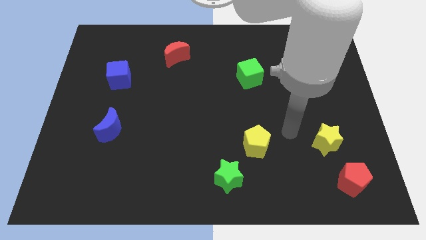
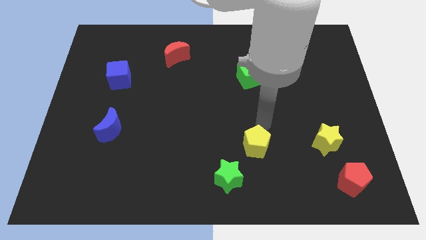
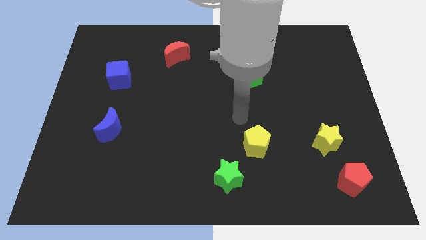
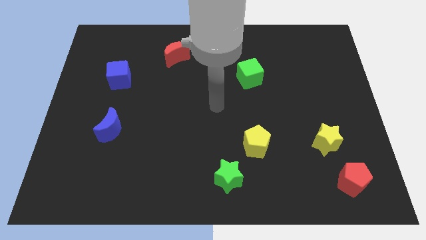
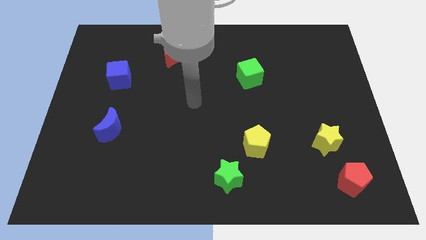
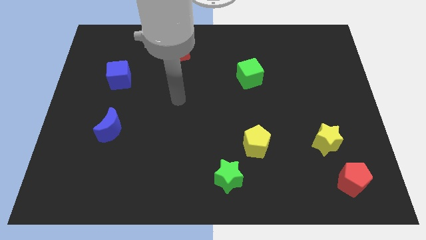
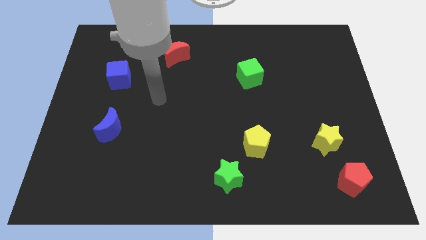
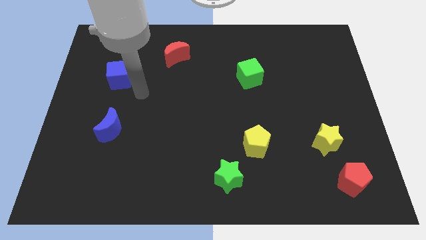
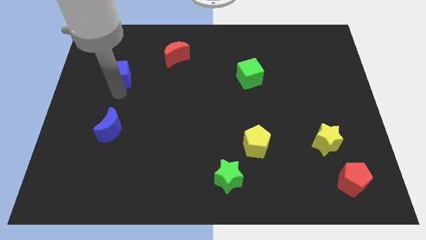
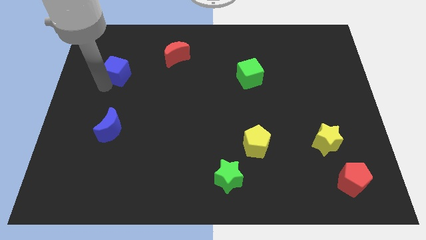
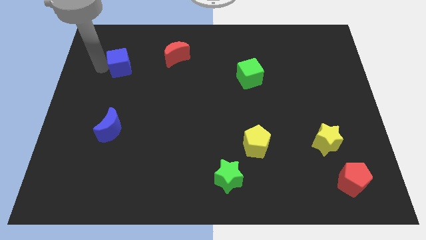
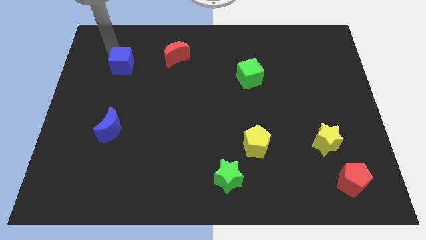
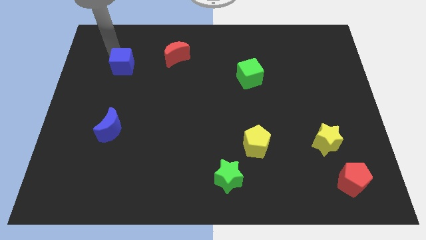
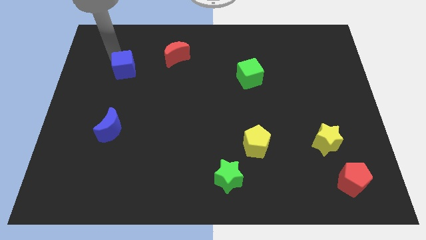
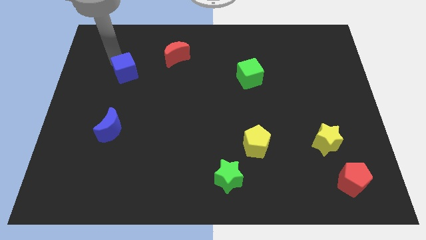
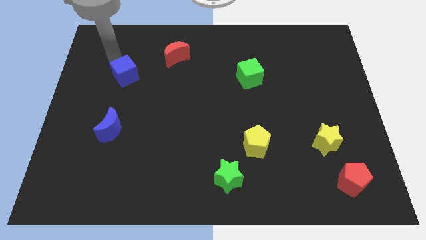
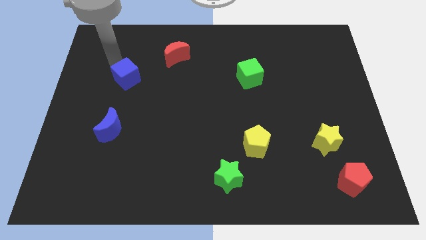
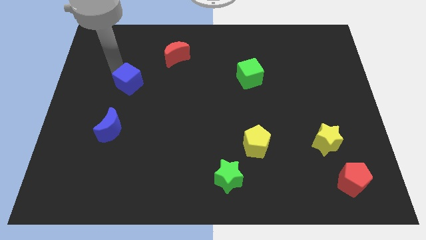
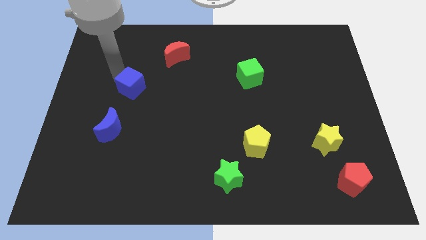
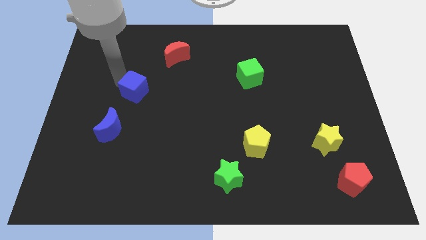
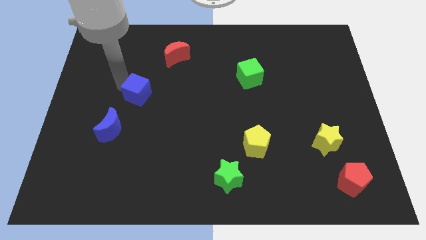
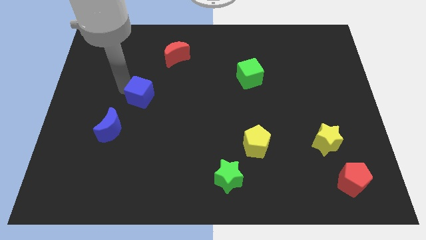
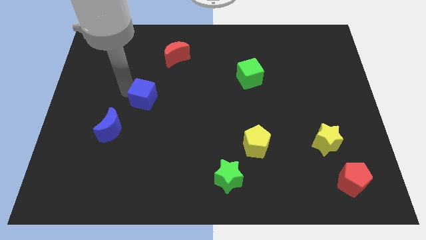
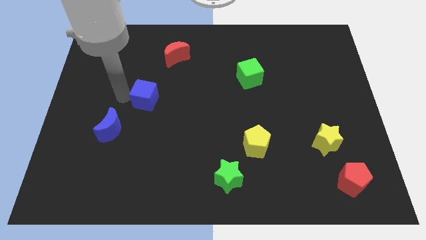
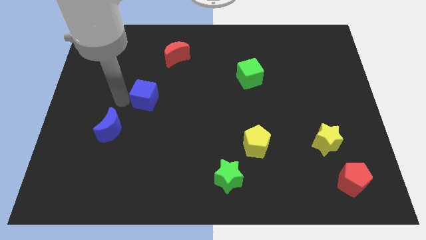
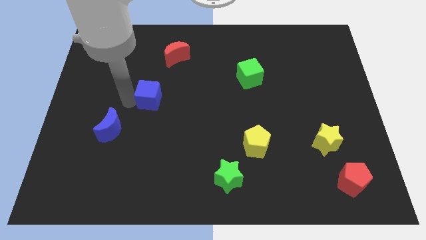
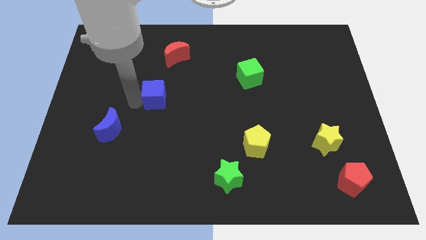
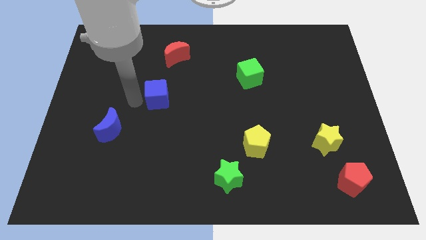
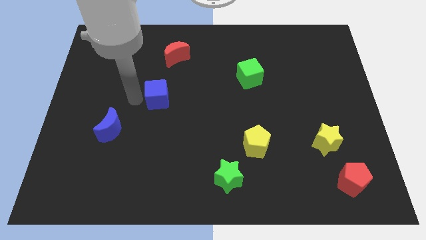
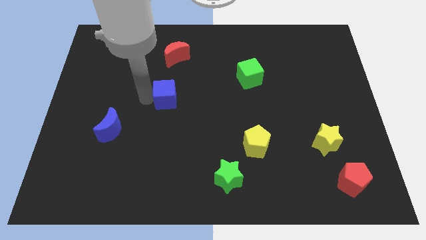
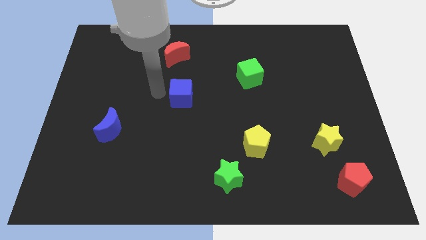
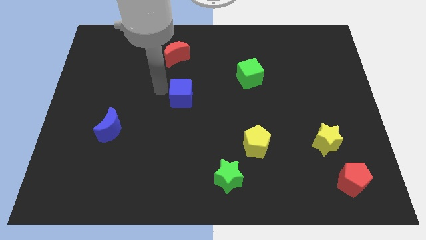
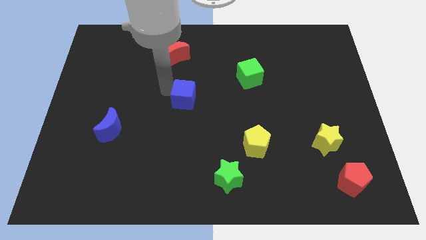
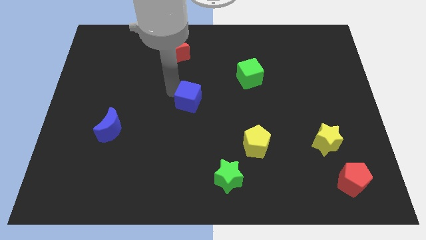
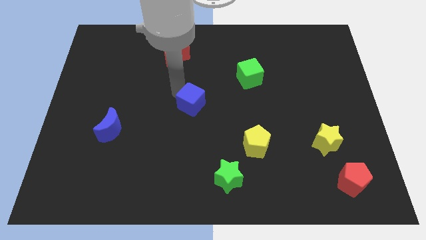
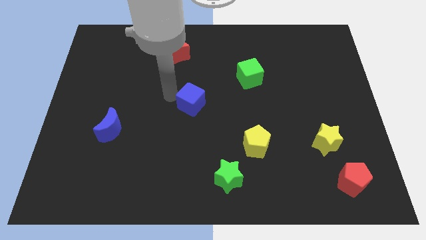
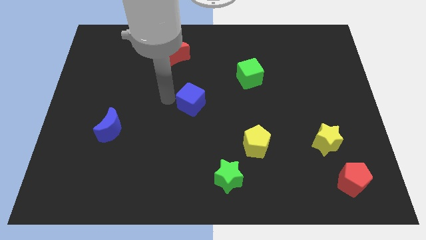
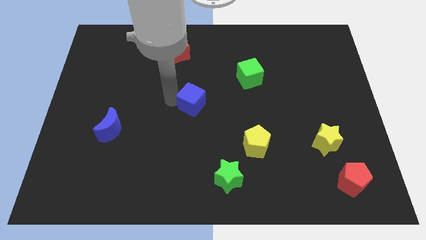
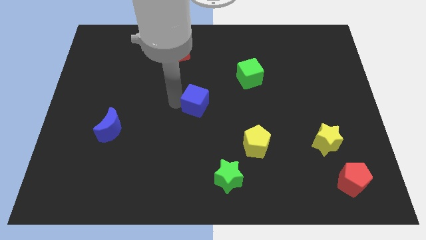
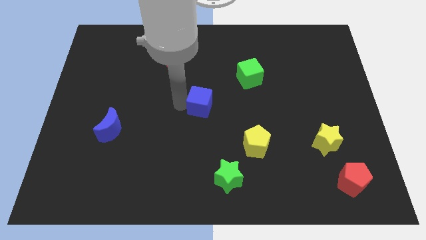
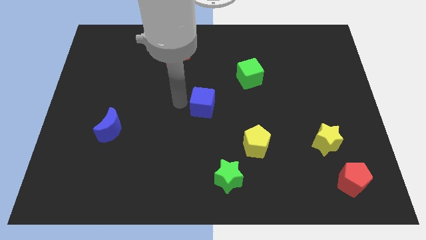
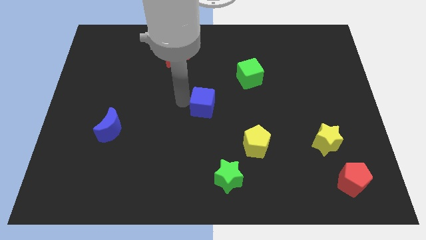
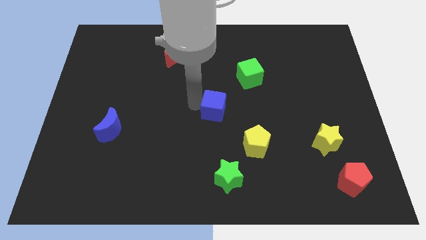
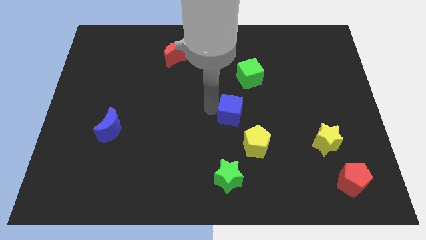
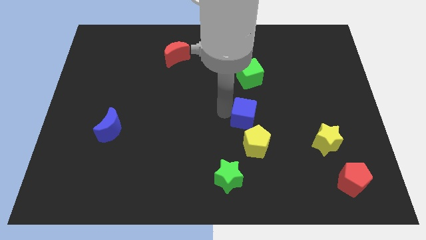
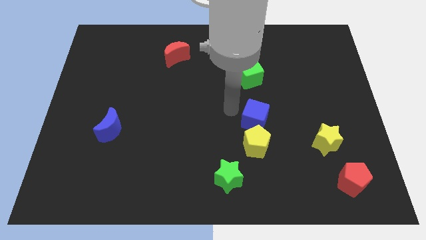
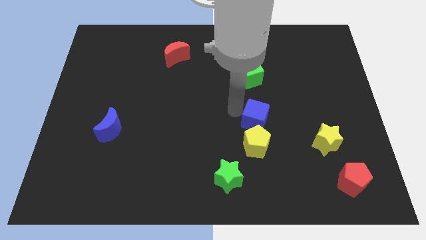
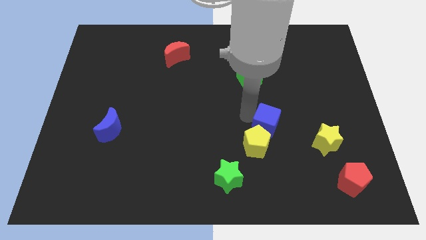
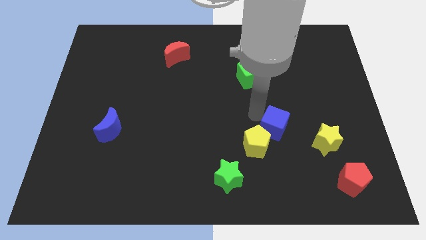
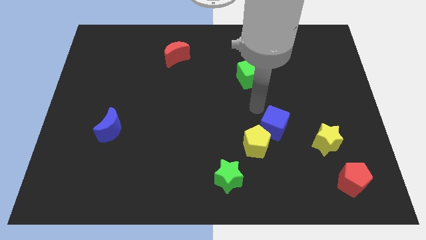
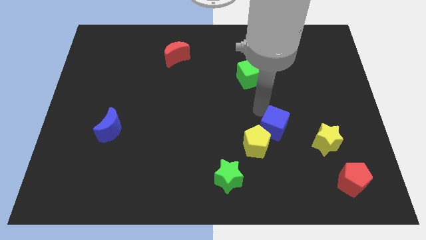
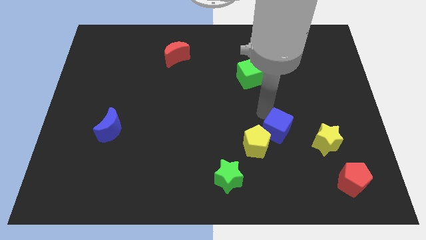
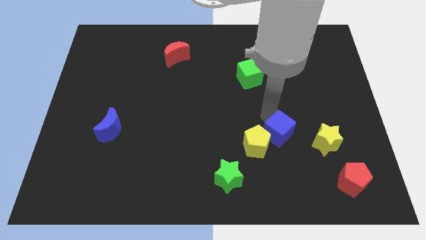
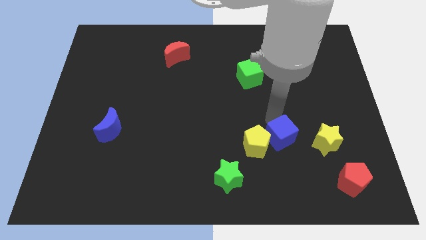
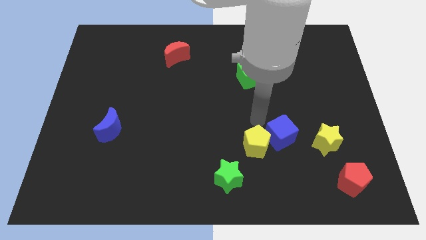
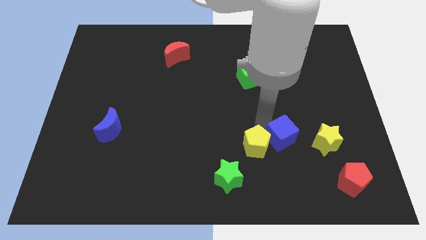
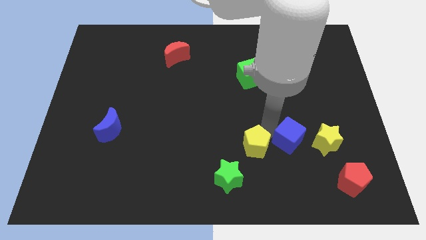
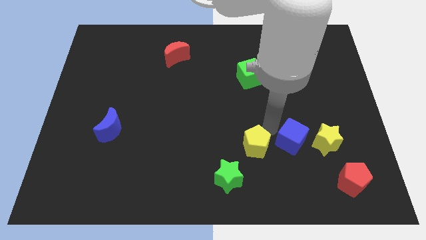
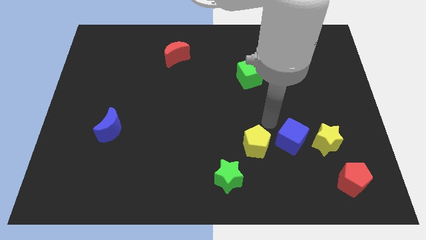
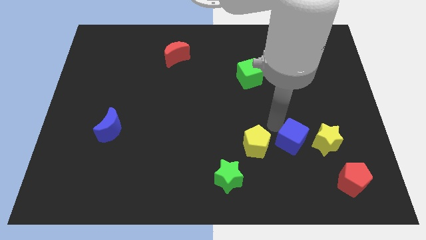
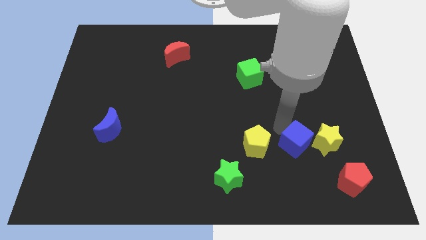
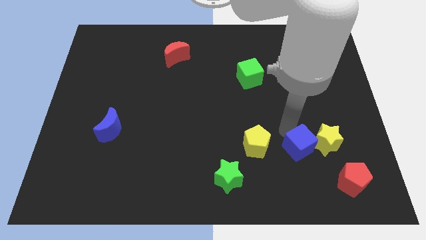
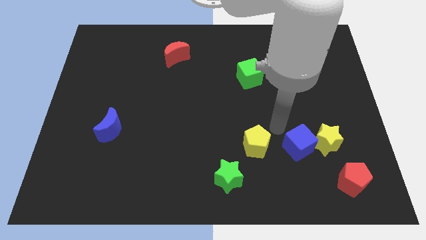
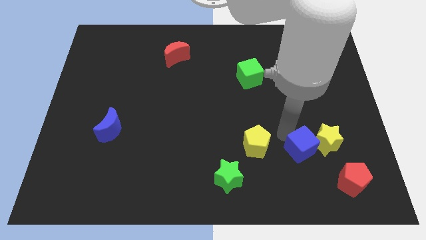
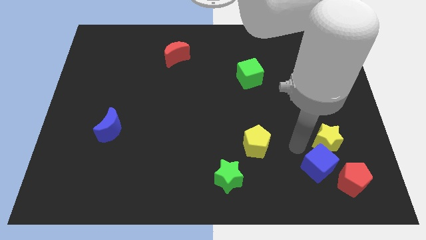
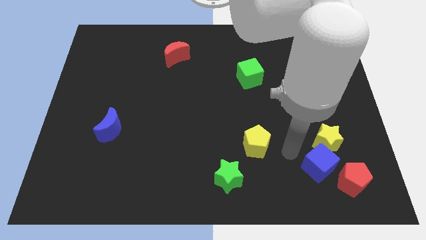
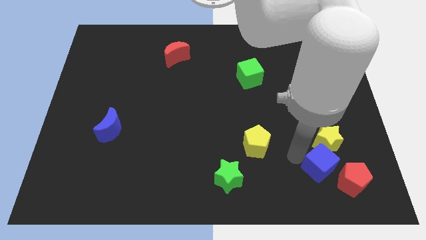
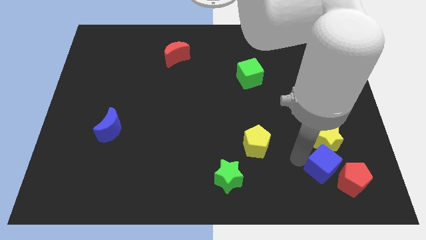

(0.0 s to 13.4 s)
push the blue cube close to the red pentagon

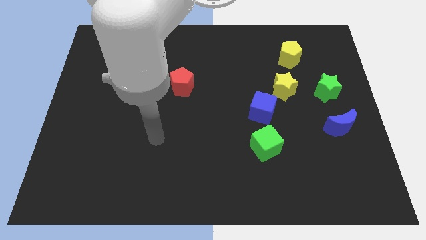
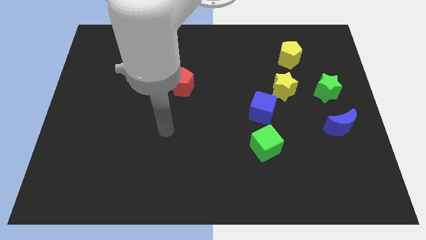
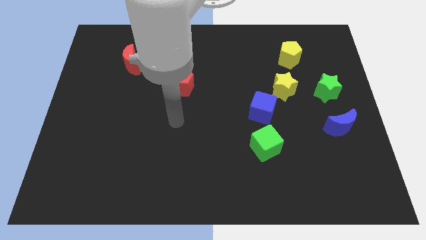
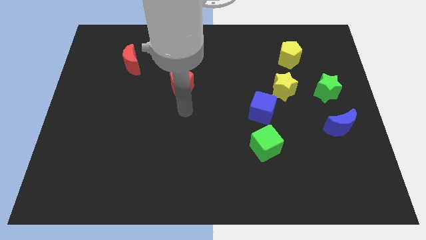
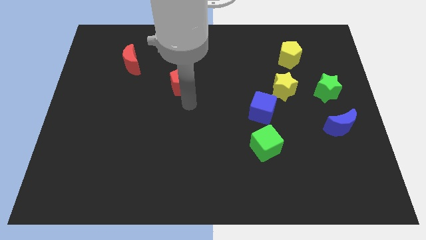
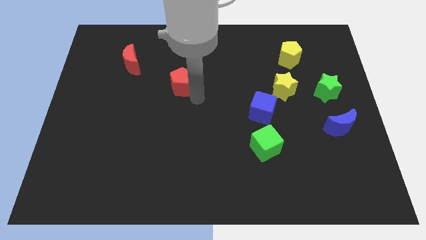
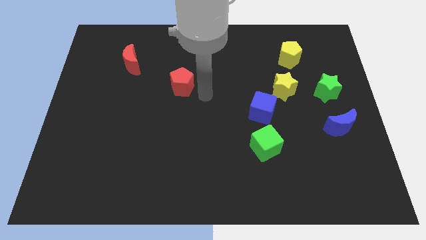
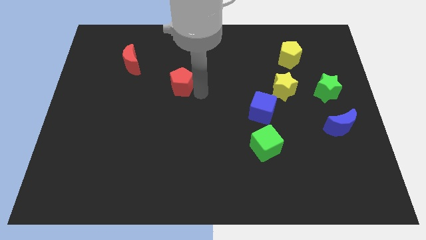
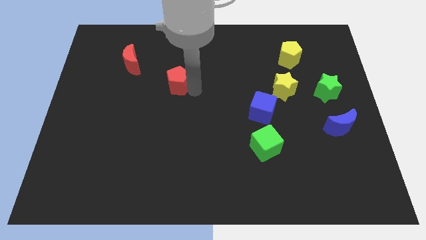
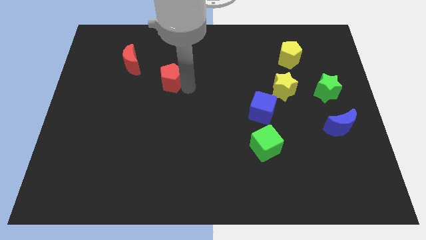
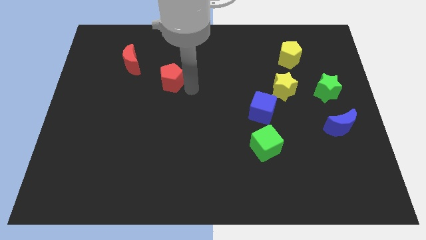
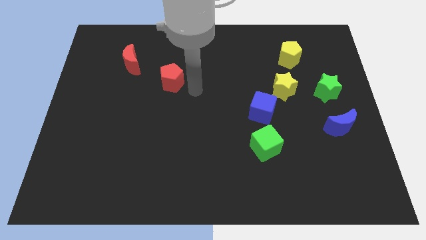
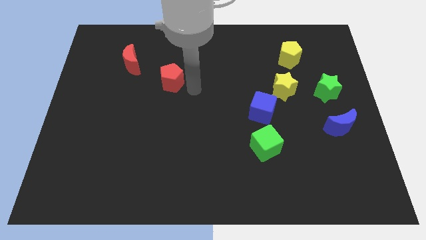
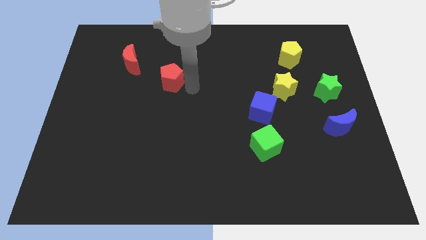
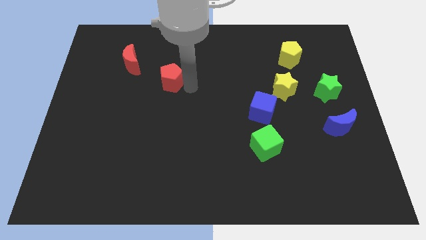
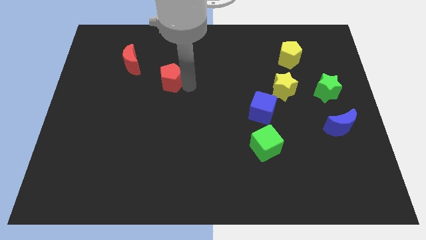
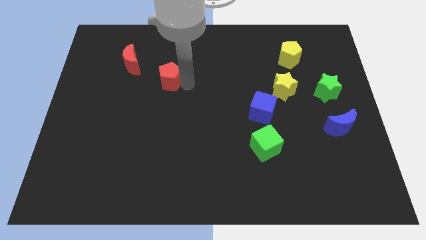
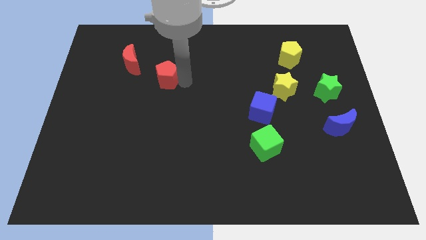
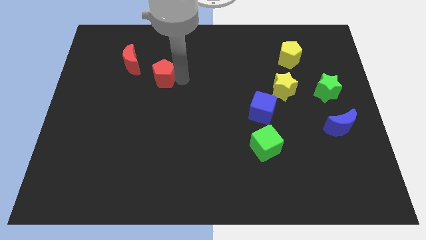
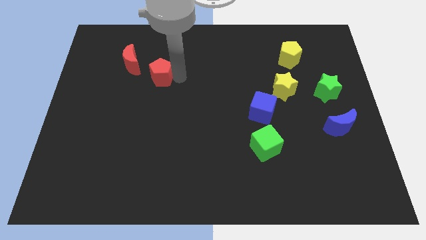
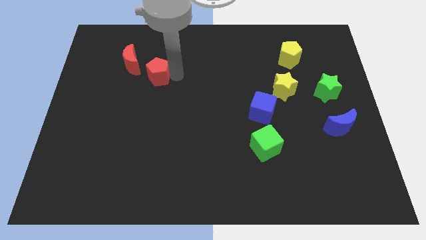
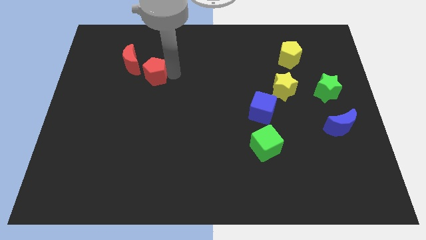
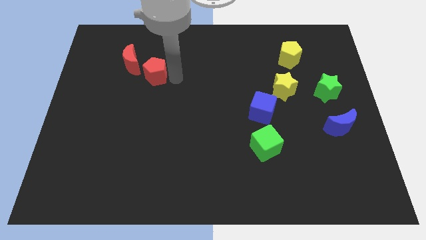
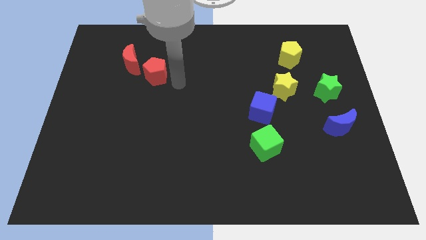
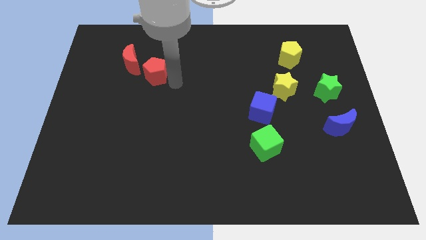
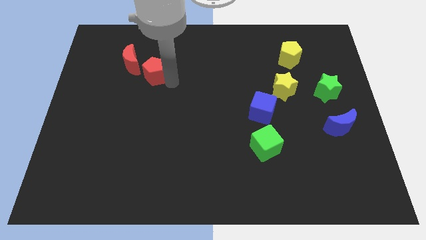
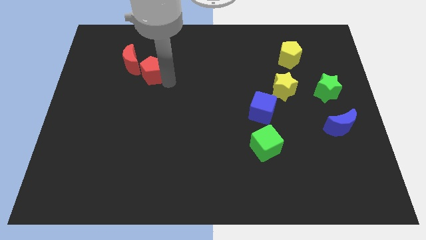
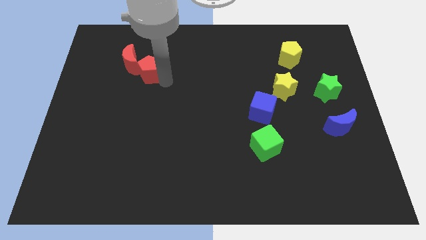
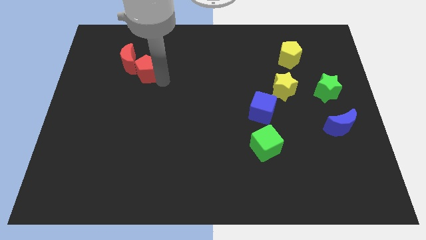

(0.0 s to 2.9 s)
push the red pentagon next to the red moon
